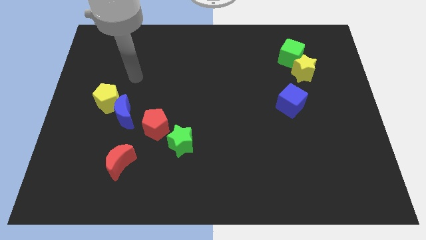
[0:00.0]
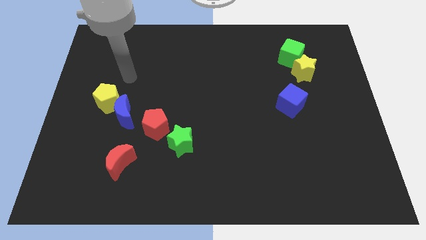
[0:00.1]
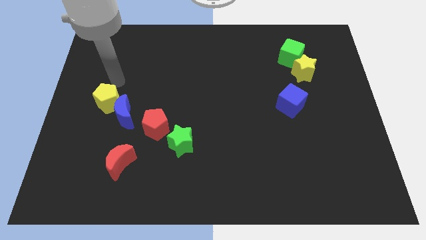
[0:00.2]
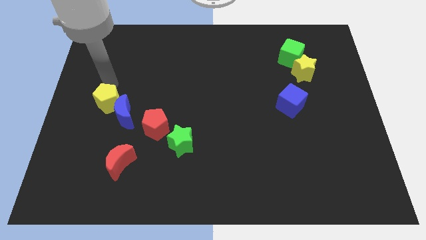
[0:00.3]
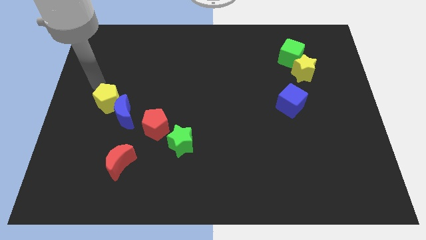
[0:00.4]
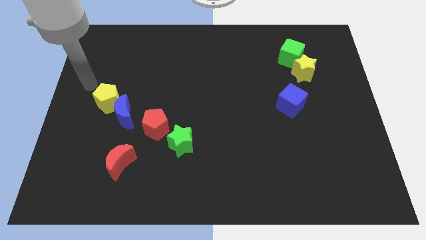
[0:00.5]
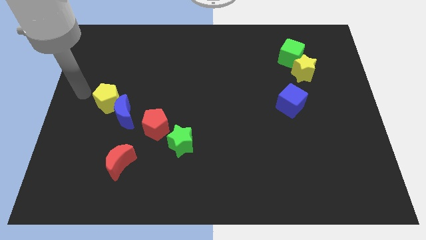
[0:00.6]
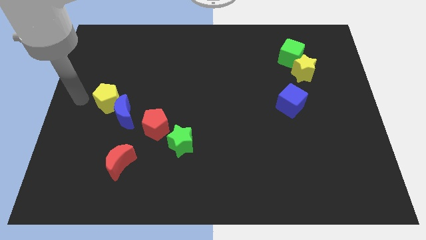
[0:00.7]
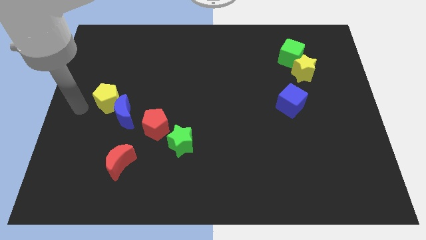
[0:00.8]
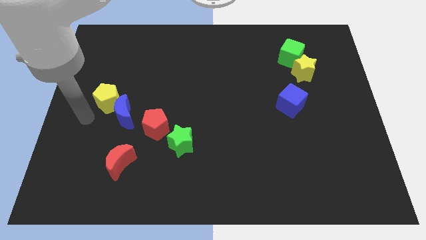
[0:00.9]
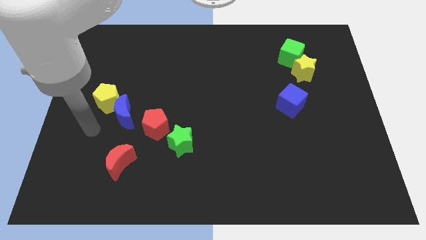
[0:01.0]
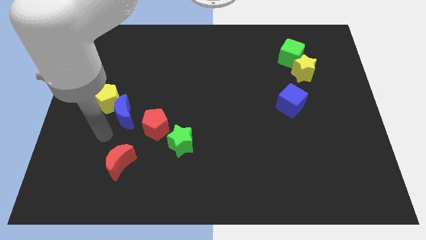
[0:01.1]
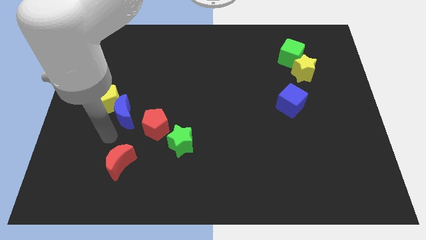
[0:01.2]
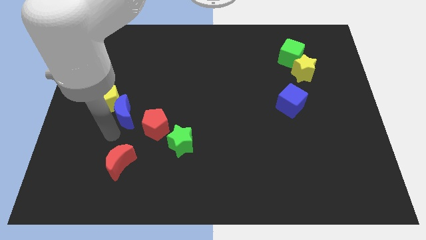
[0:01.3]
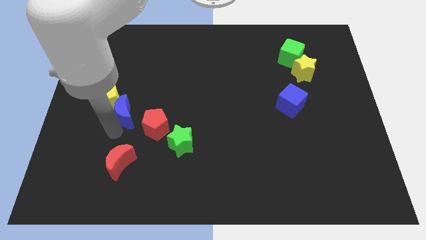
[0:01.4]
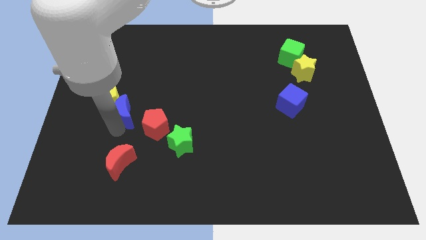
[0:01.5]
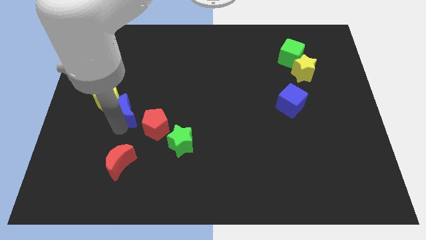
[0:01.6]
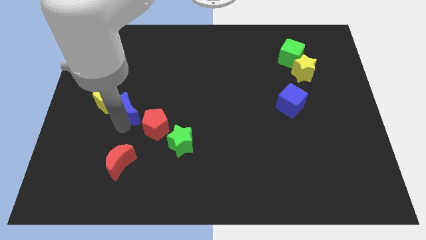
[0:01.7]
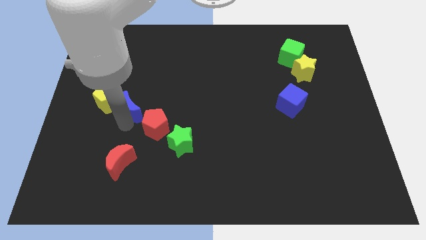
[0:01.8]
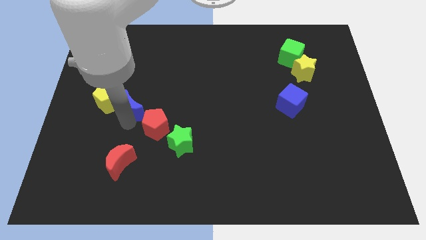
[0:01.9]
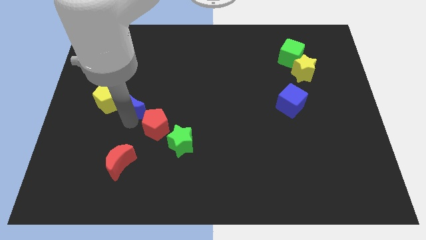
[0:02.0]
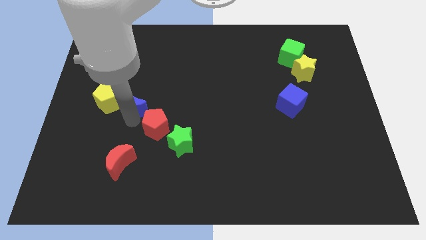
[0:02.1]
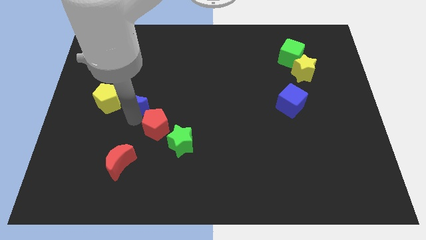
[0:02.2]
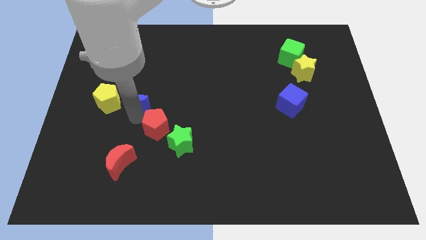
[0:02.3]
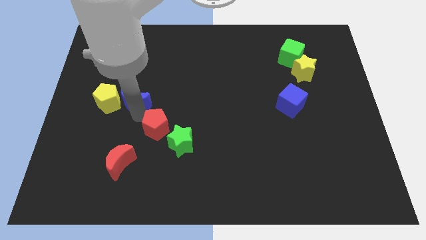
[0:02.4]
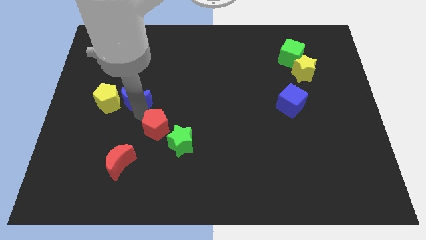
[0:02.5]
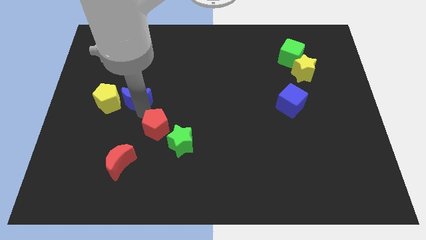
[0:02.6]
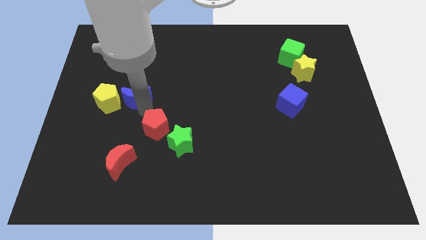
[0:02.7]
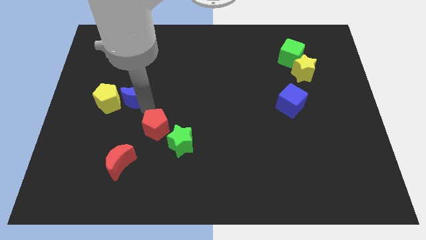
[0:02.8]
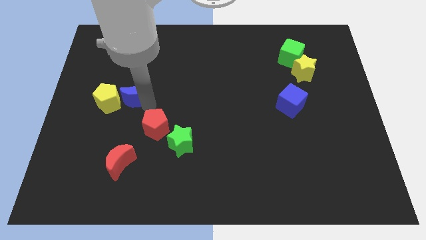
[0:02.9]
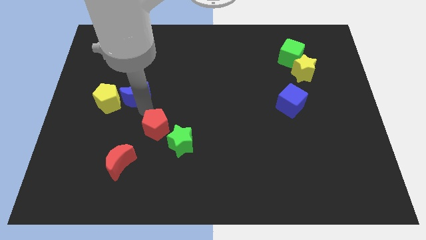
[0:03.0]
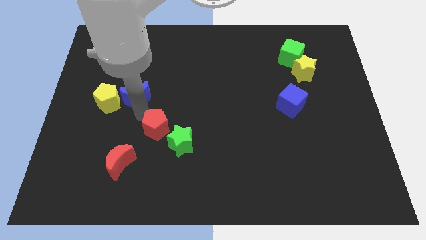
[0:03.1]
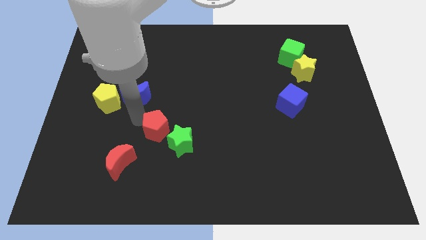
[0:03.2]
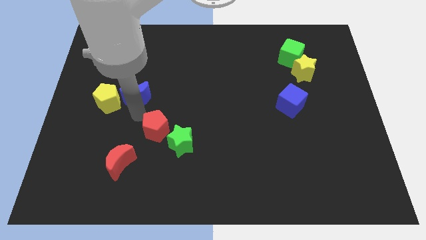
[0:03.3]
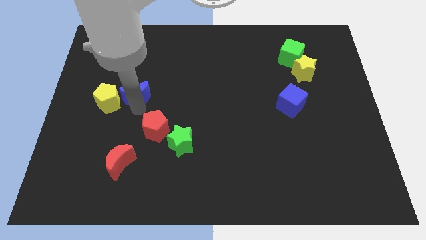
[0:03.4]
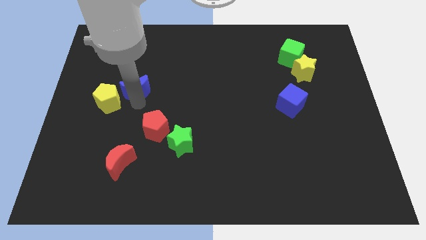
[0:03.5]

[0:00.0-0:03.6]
move the blue moon a little bit up

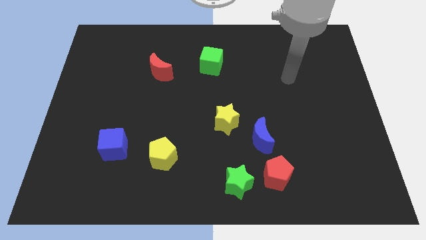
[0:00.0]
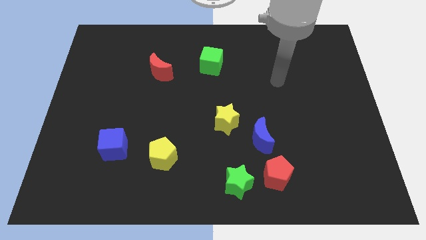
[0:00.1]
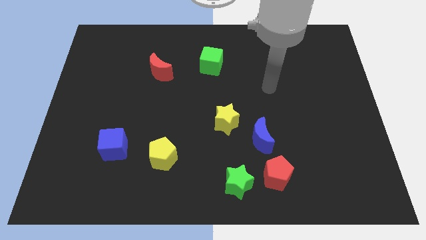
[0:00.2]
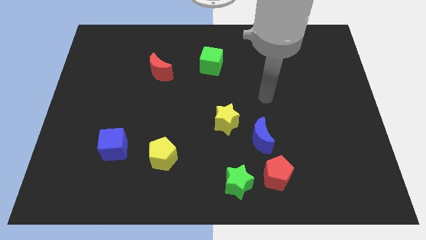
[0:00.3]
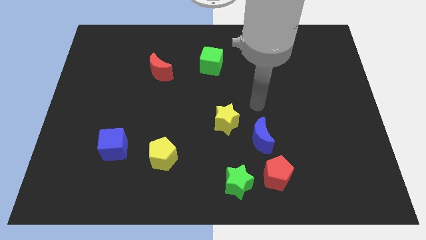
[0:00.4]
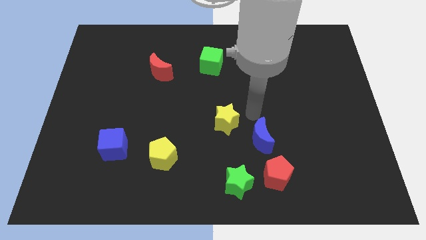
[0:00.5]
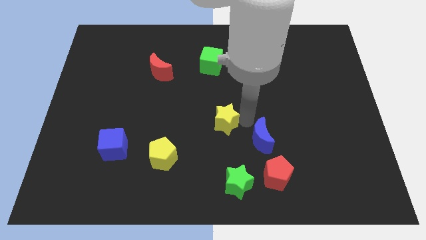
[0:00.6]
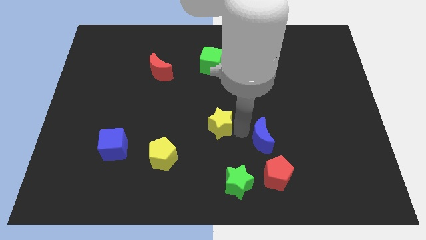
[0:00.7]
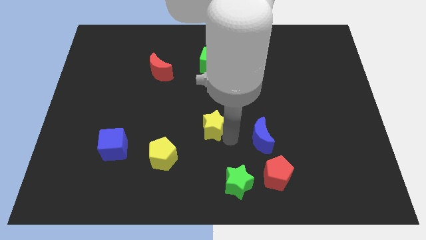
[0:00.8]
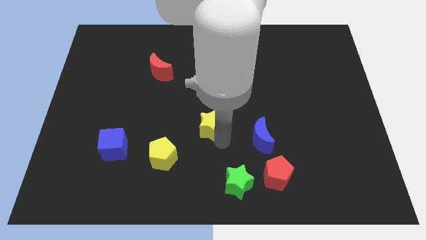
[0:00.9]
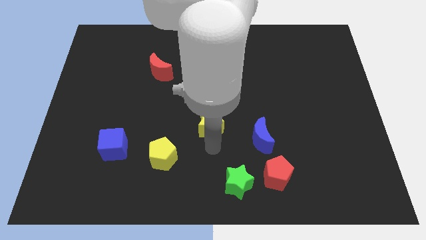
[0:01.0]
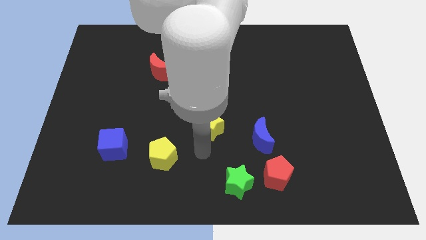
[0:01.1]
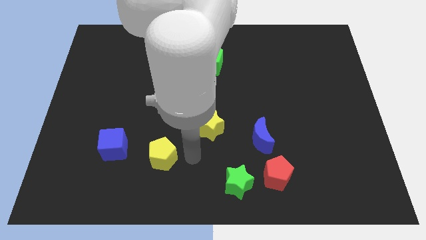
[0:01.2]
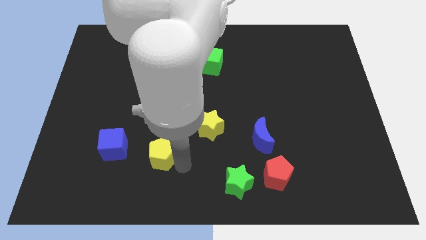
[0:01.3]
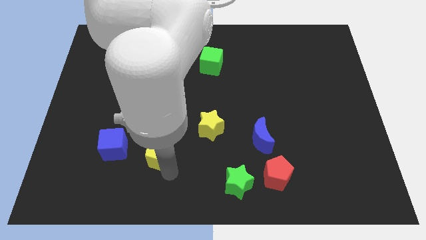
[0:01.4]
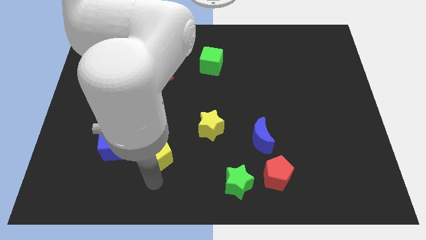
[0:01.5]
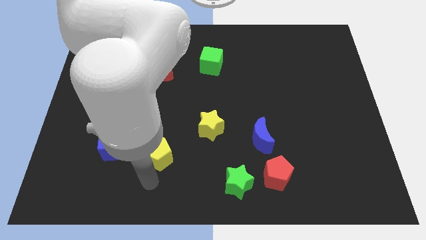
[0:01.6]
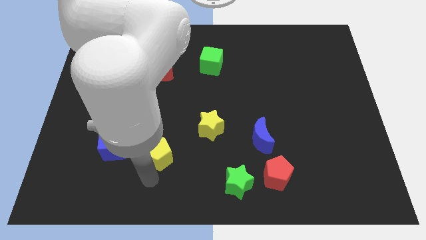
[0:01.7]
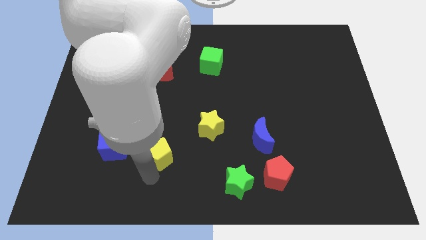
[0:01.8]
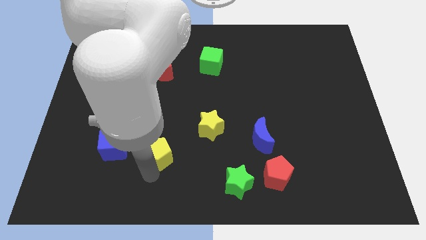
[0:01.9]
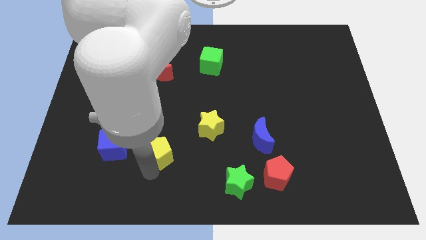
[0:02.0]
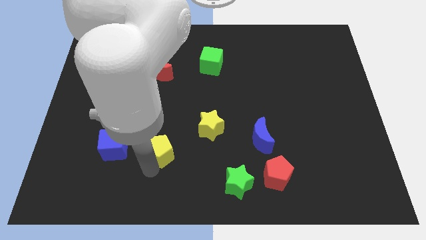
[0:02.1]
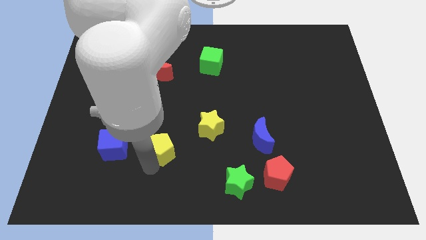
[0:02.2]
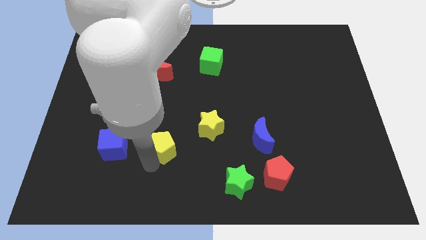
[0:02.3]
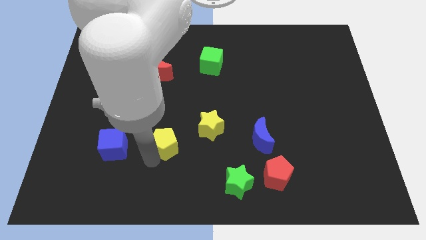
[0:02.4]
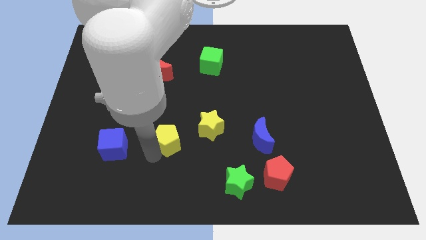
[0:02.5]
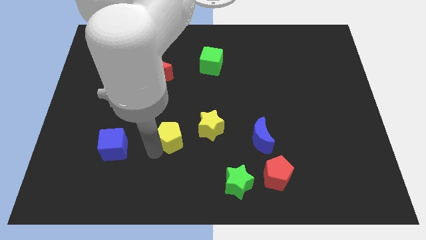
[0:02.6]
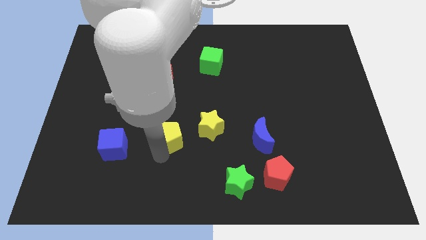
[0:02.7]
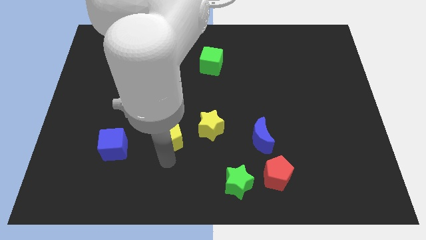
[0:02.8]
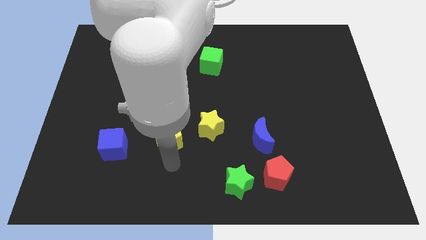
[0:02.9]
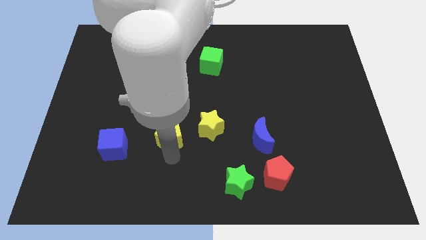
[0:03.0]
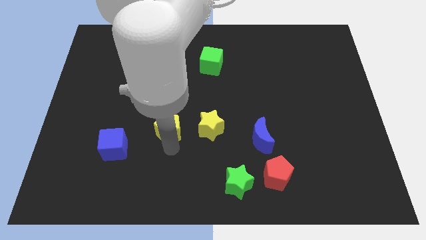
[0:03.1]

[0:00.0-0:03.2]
move the yellow pentagon up somewhat

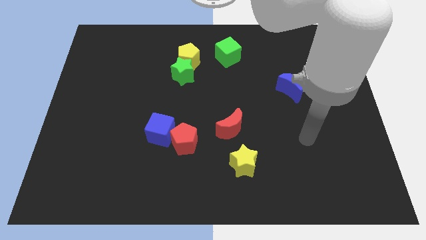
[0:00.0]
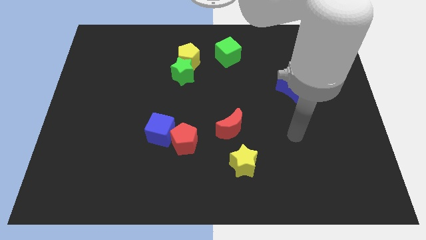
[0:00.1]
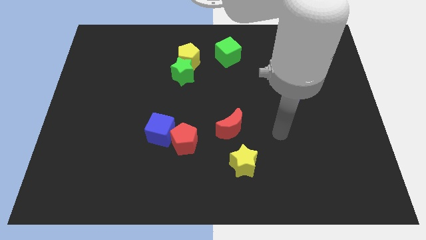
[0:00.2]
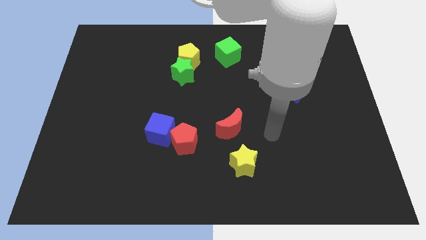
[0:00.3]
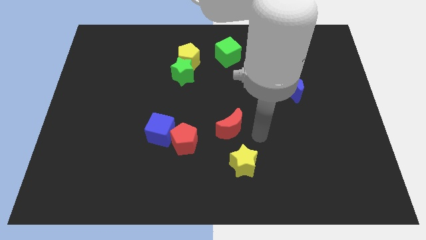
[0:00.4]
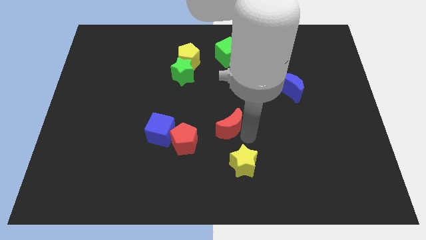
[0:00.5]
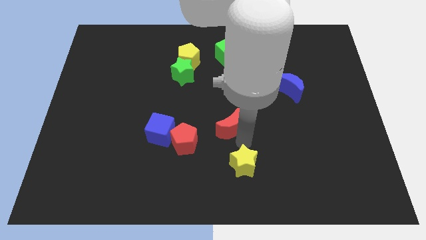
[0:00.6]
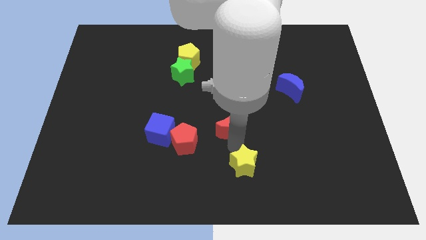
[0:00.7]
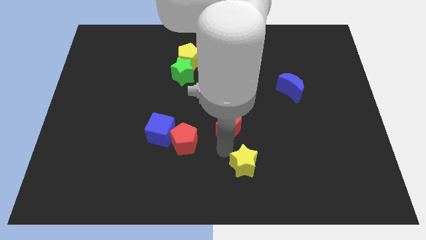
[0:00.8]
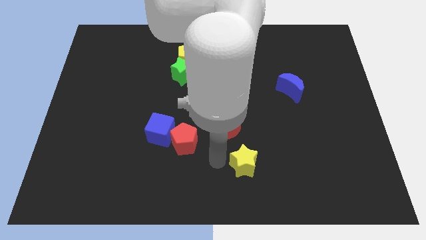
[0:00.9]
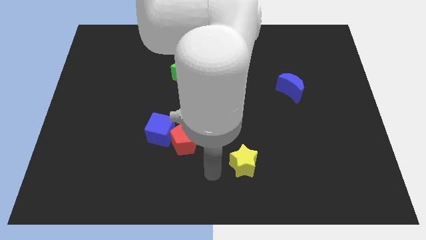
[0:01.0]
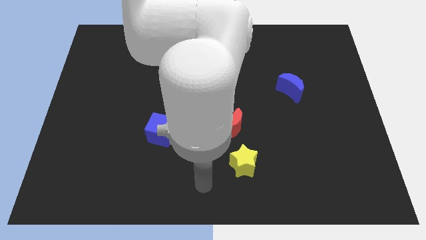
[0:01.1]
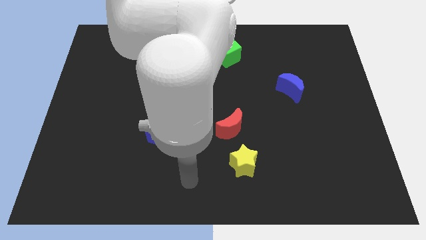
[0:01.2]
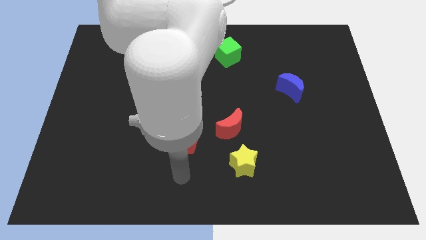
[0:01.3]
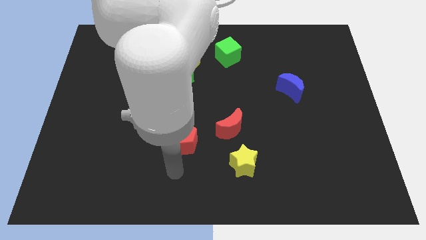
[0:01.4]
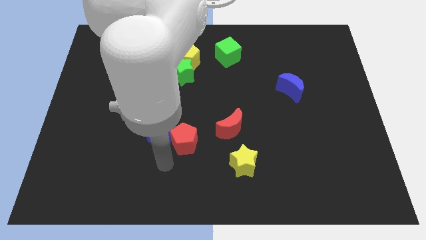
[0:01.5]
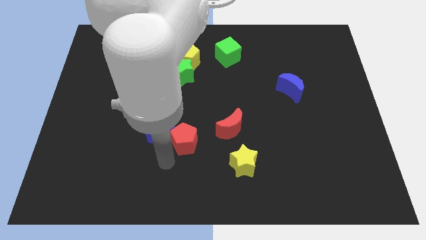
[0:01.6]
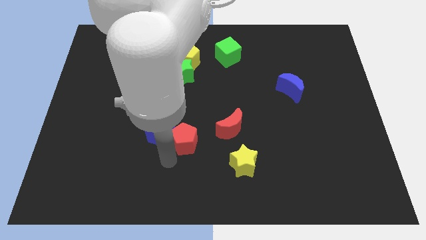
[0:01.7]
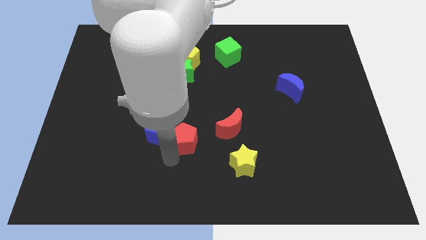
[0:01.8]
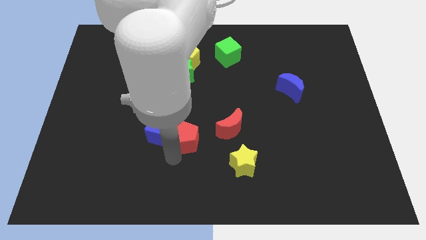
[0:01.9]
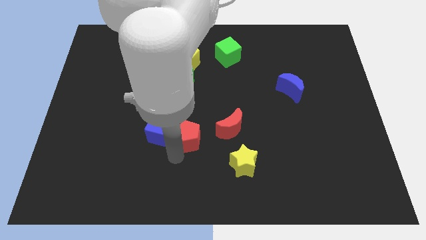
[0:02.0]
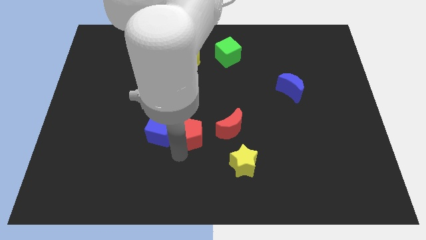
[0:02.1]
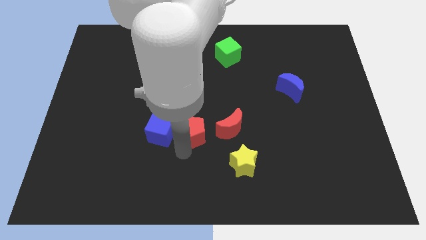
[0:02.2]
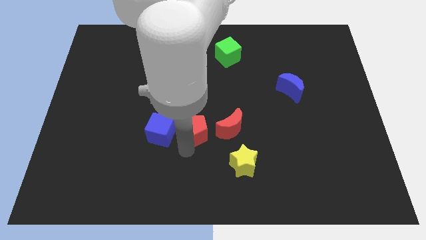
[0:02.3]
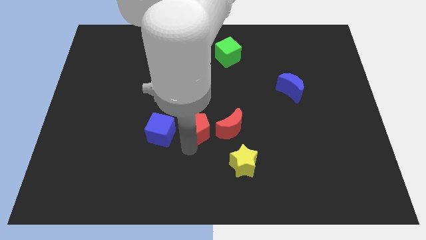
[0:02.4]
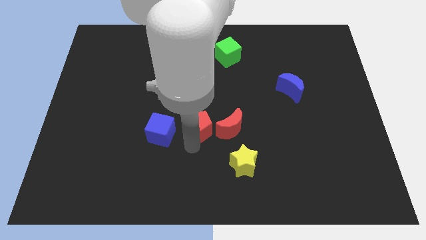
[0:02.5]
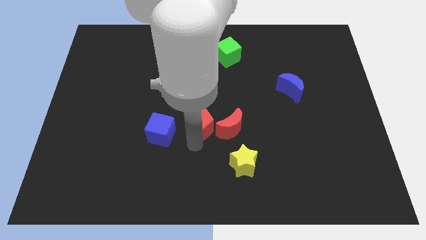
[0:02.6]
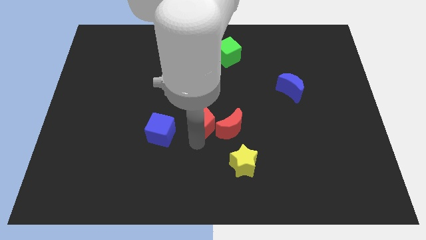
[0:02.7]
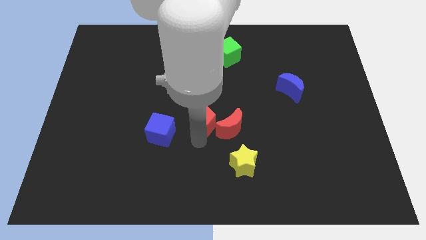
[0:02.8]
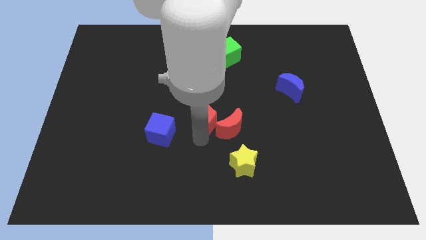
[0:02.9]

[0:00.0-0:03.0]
slightly push the red pentagon upwards and right diagonally
